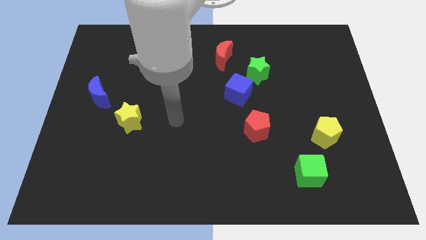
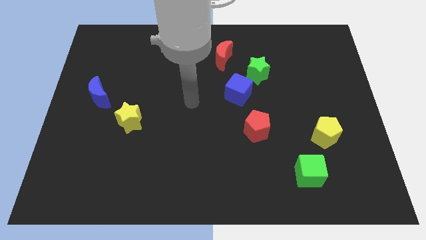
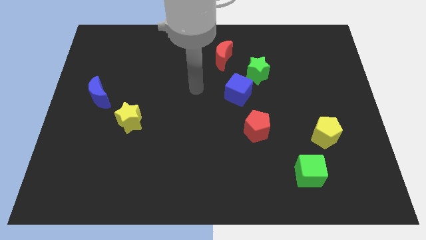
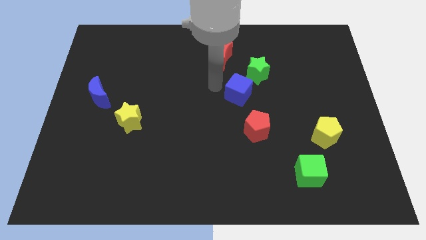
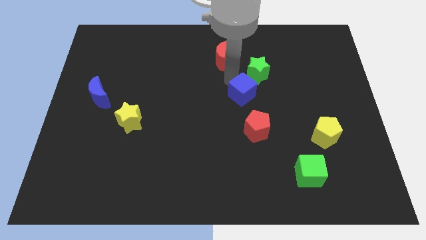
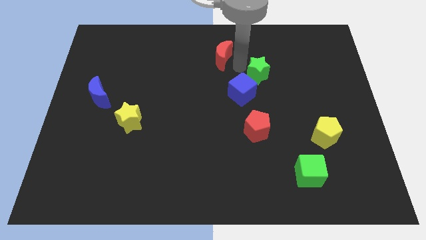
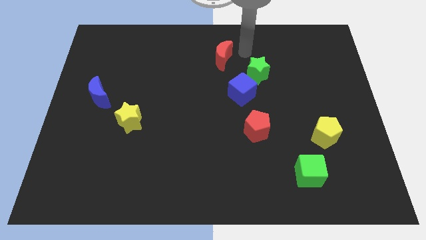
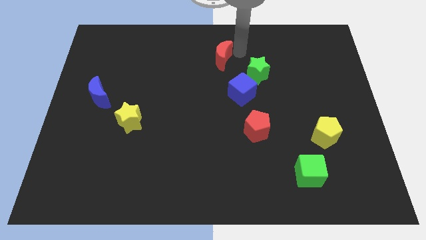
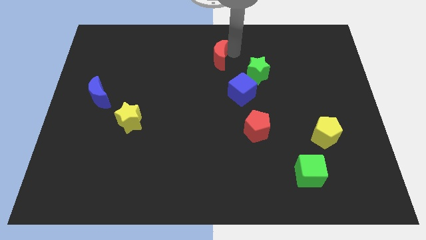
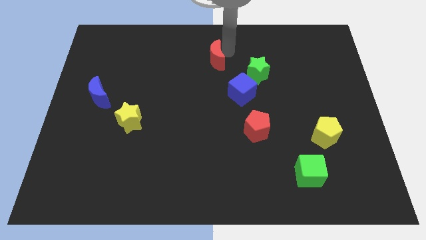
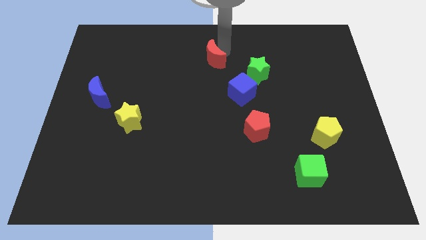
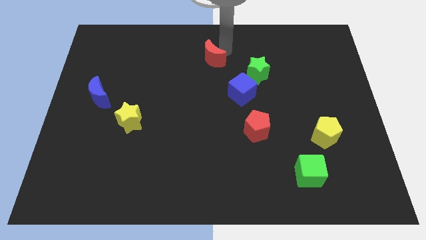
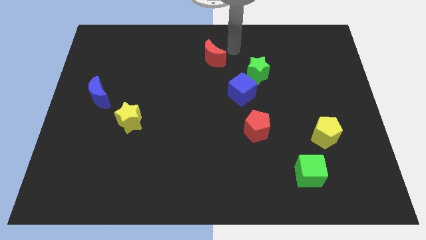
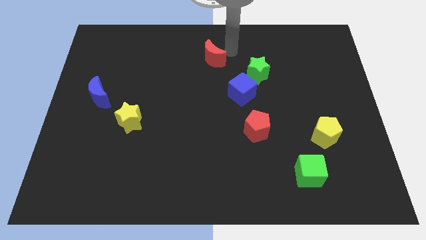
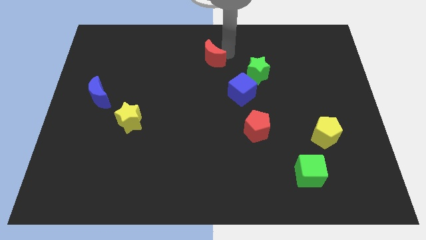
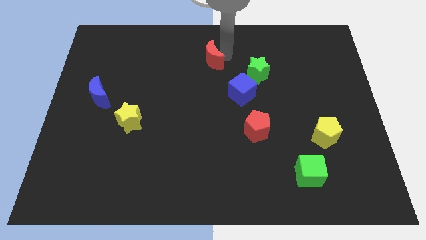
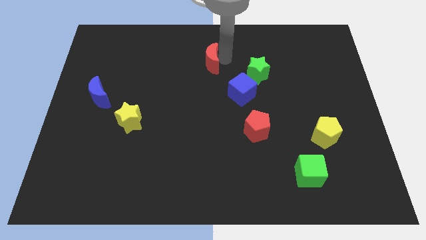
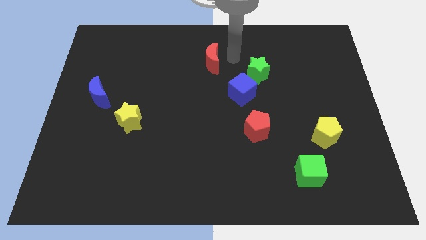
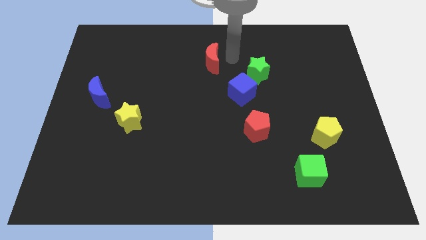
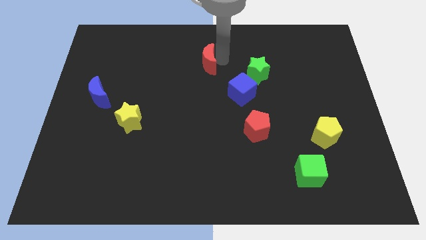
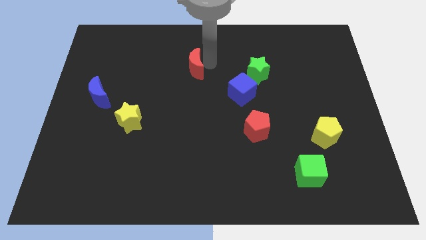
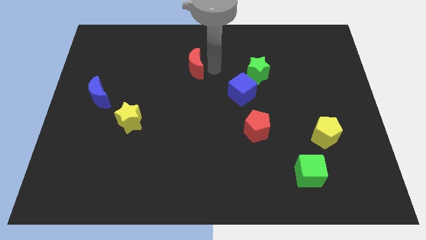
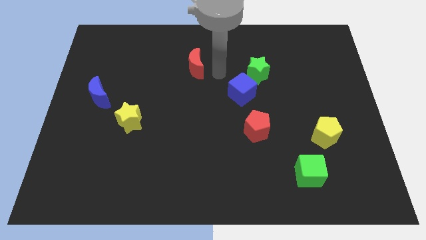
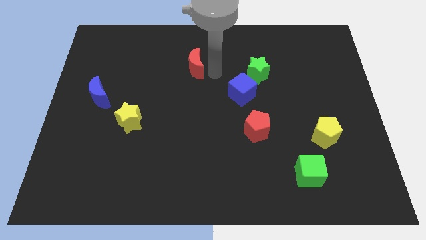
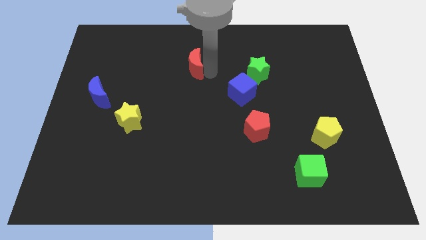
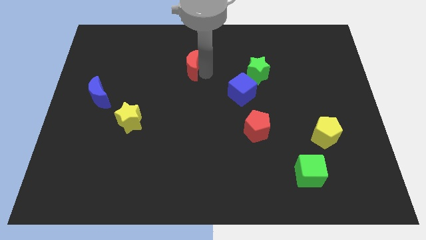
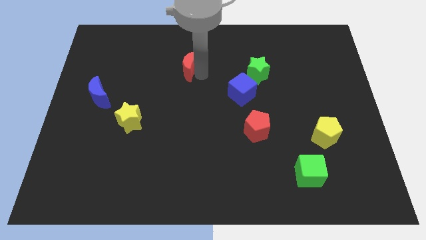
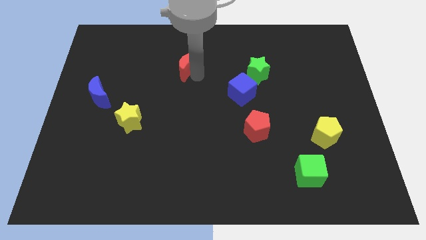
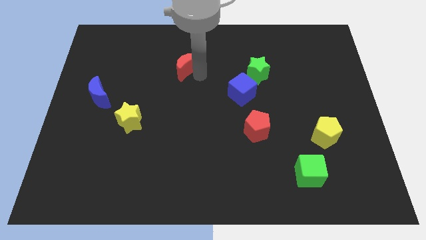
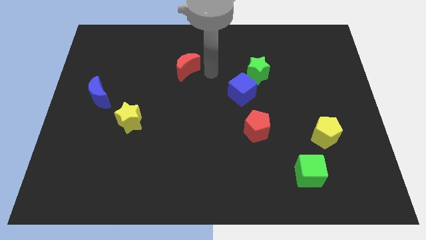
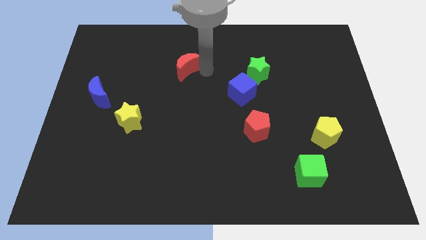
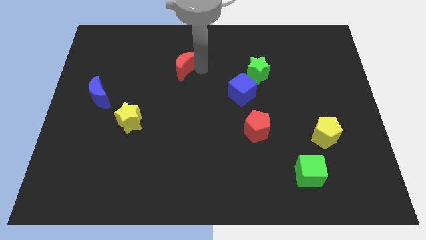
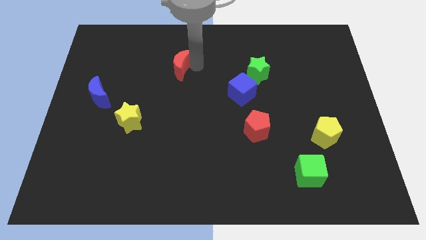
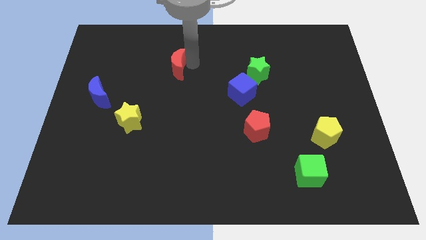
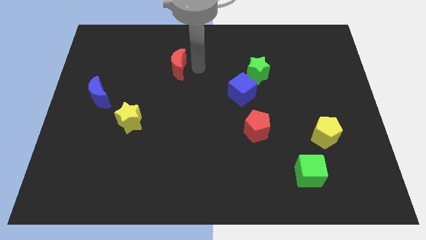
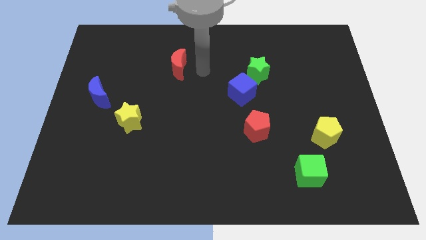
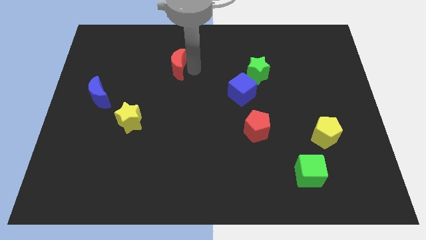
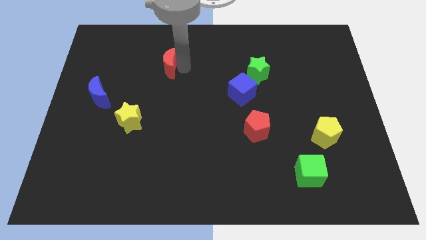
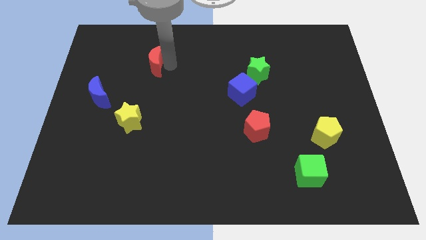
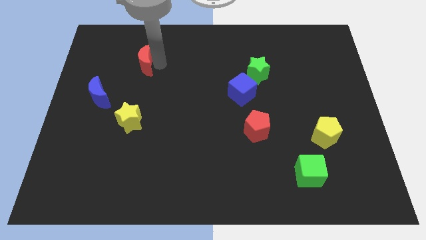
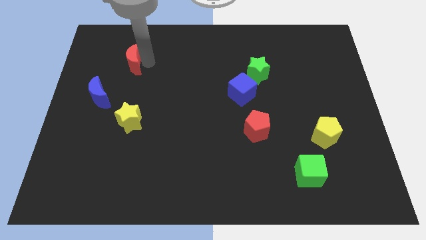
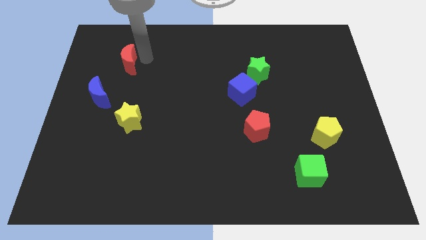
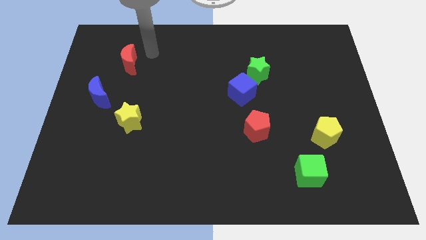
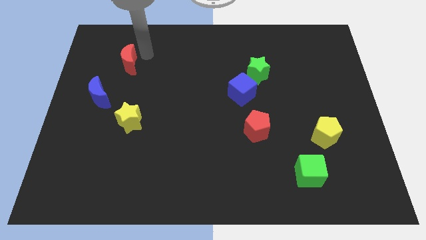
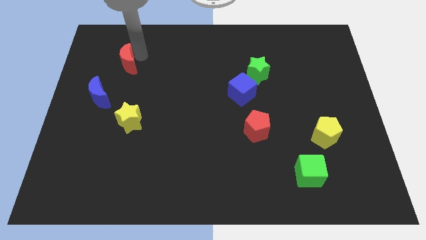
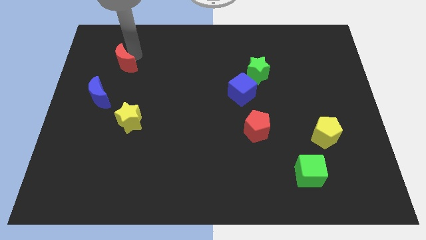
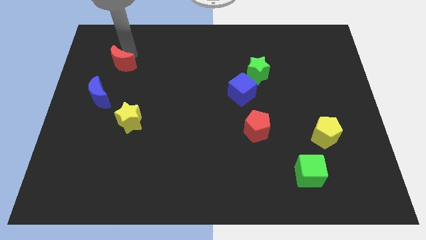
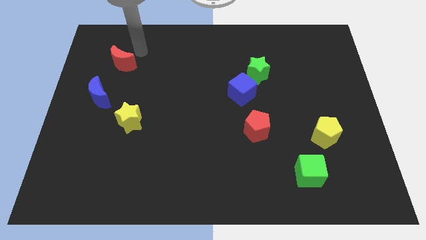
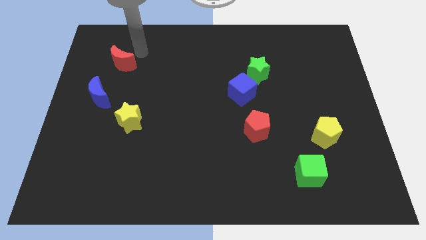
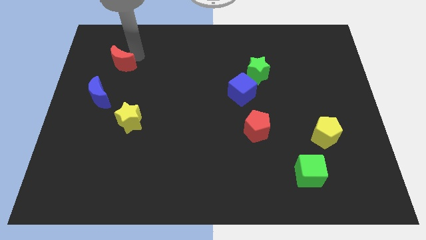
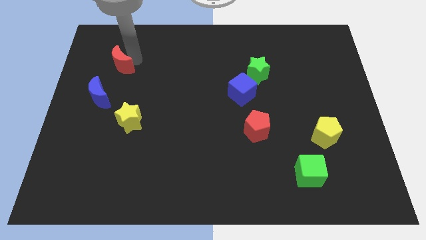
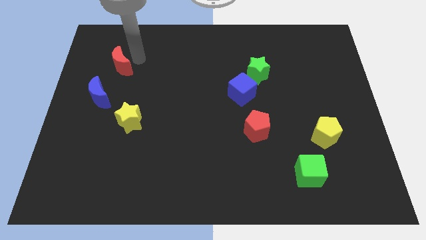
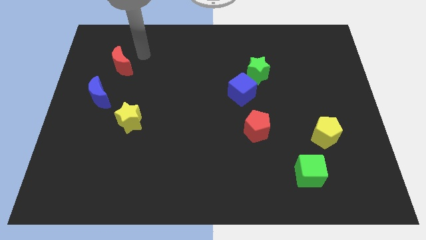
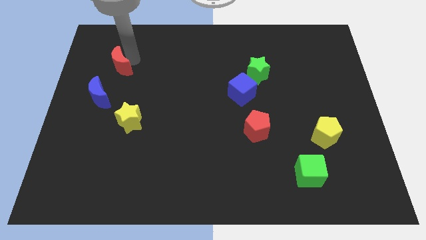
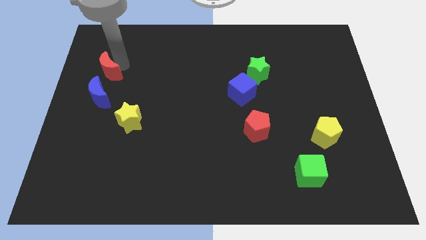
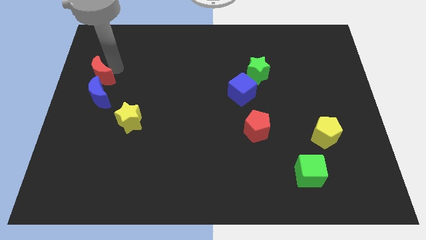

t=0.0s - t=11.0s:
push the red moon to the center left

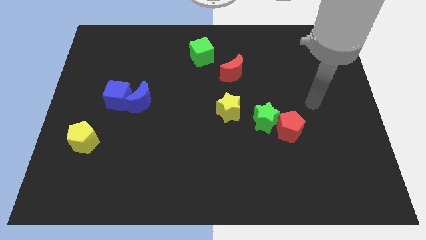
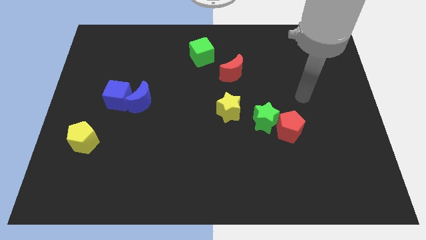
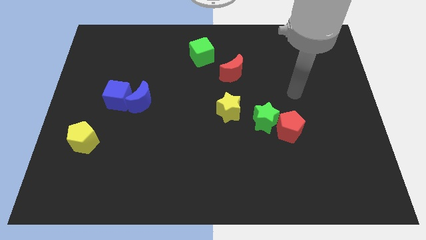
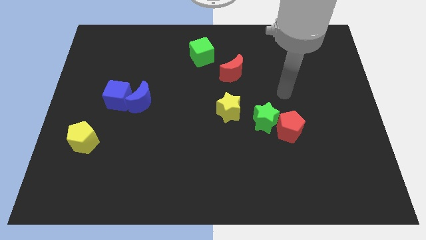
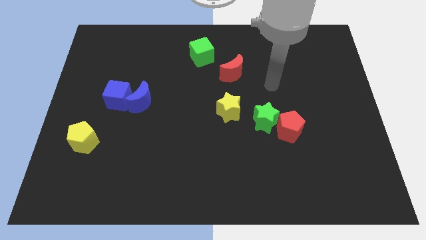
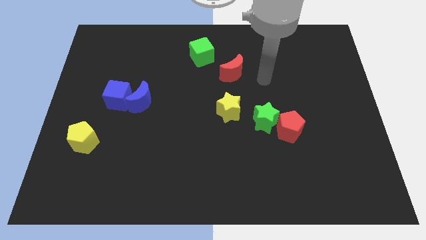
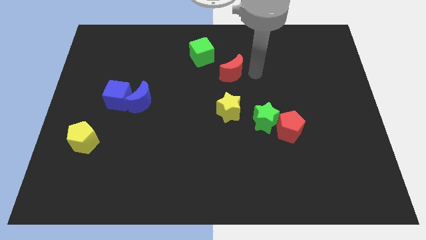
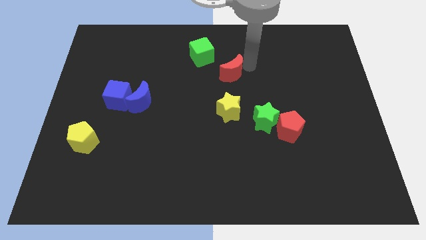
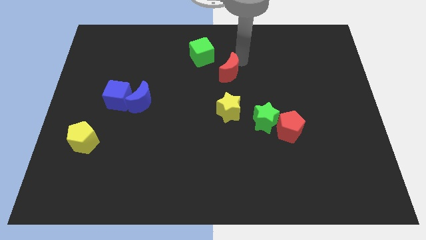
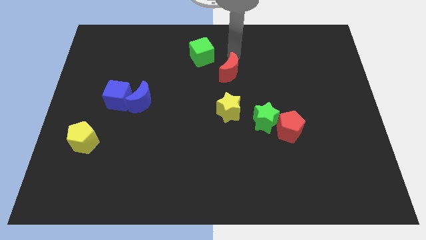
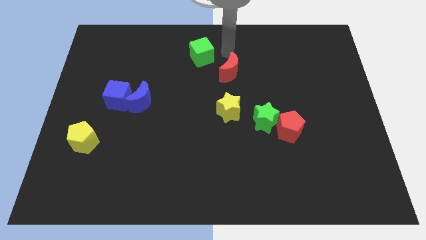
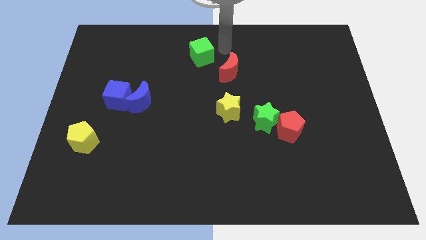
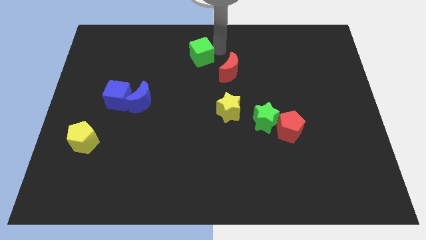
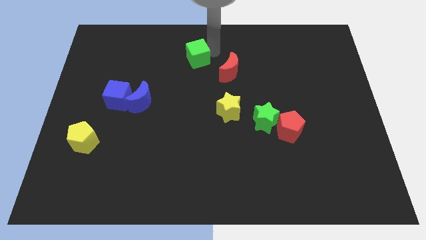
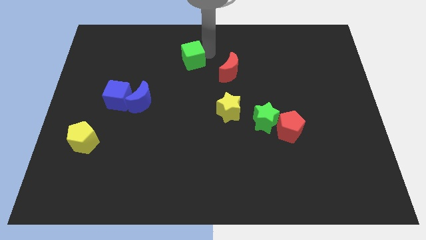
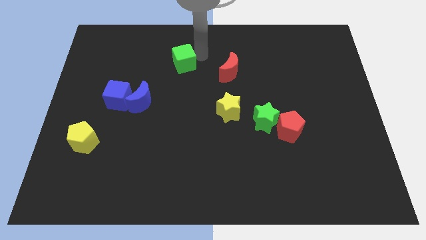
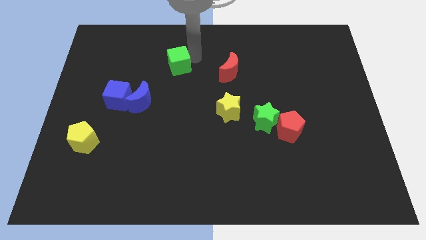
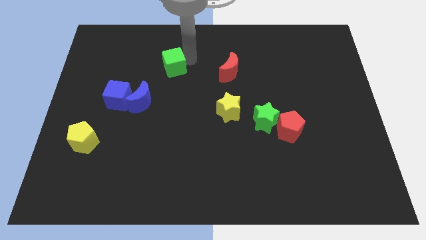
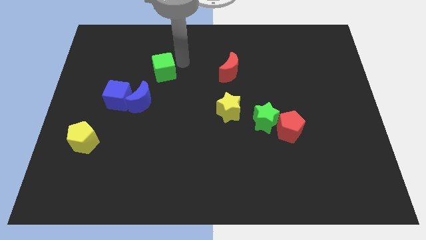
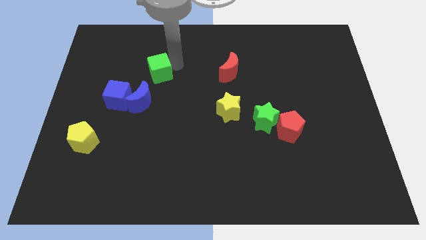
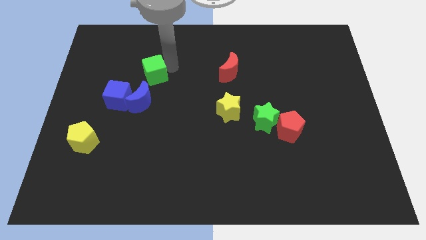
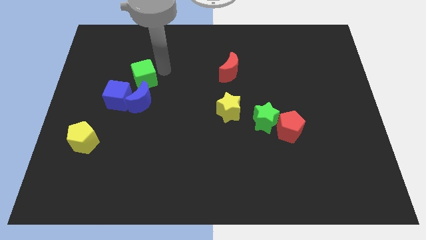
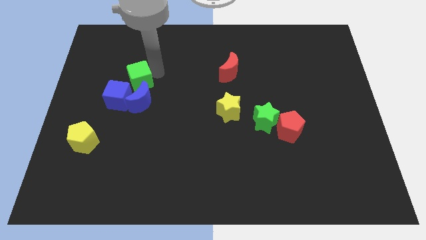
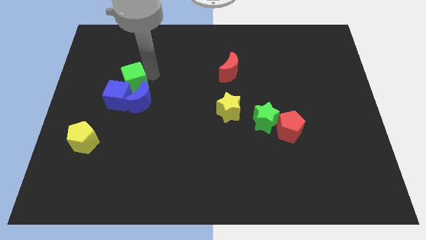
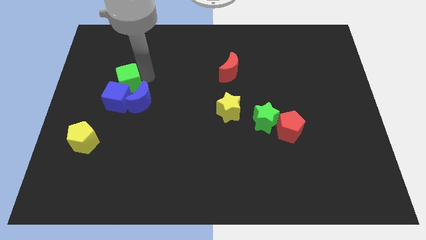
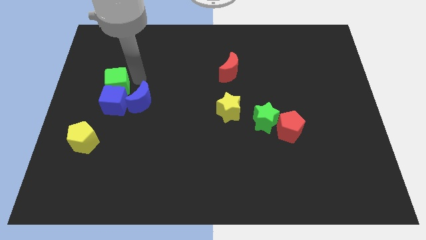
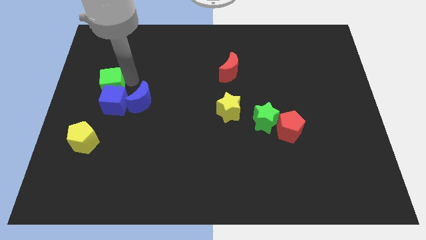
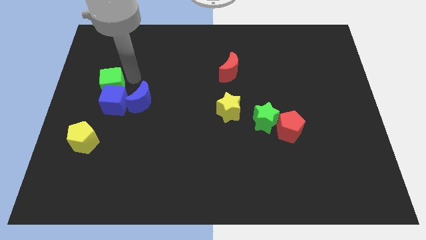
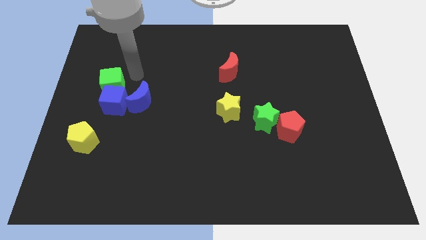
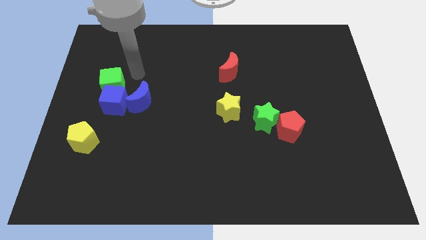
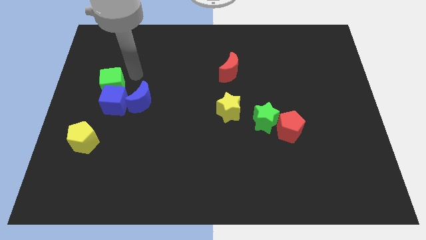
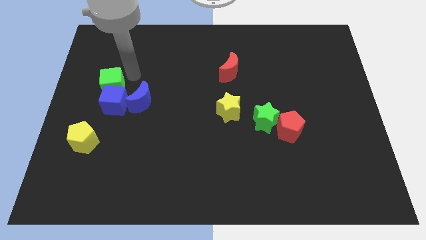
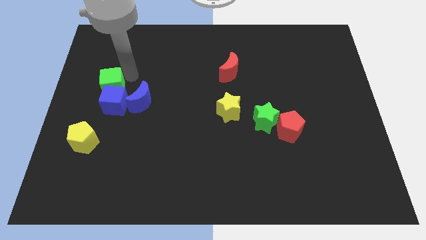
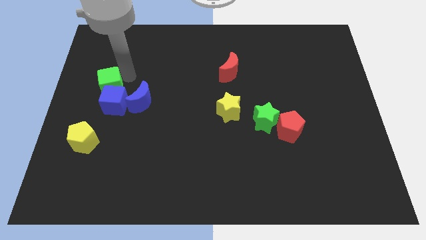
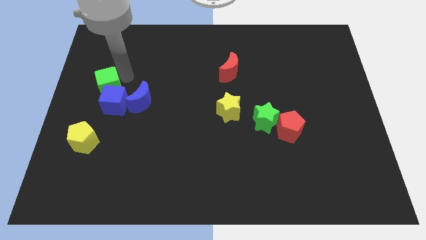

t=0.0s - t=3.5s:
push the green cube to the center left
